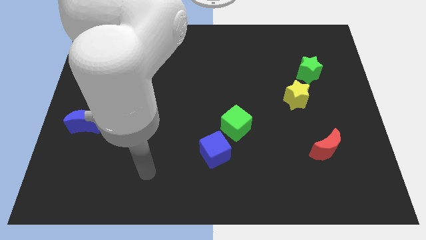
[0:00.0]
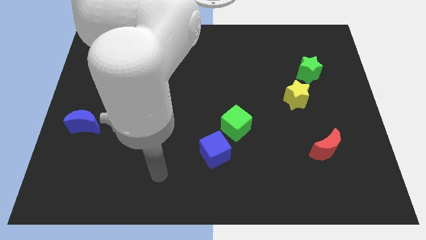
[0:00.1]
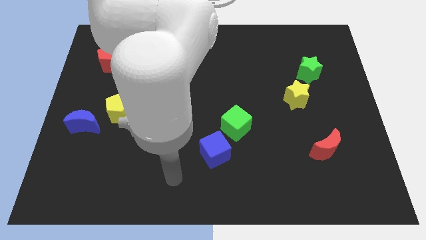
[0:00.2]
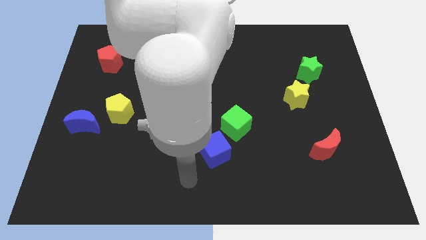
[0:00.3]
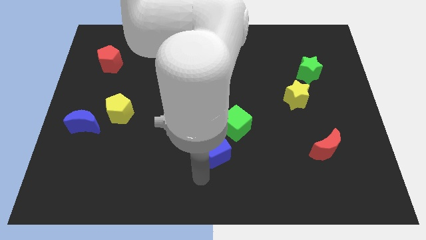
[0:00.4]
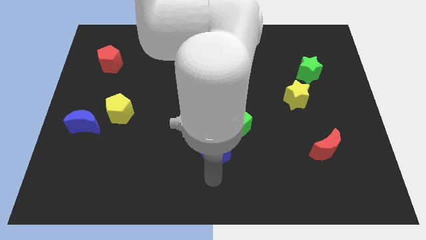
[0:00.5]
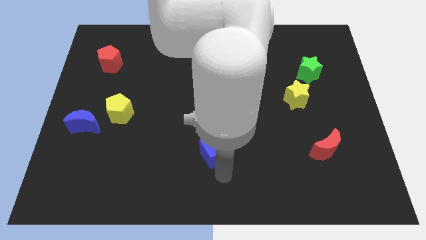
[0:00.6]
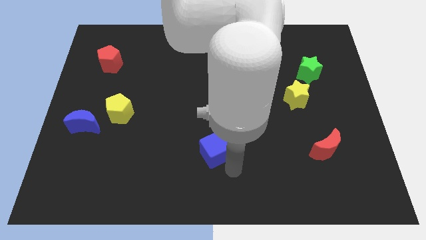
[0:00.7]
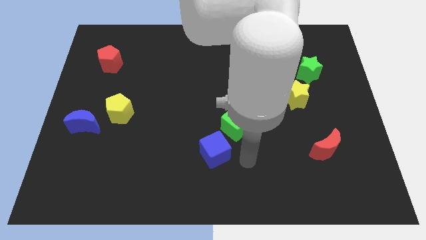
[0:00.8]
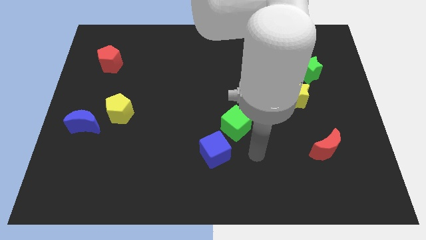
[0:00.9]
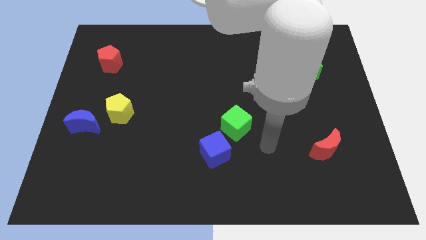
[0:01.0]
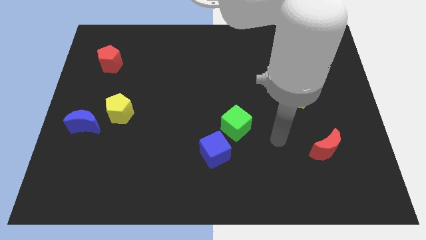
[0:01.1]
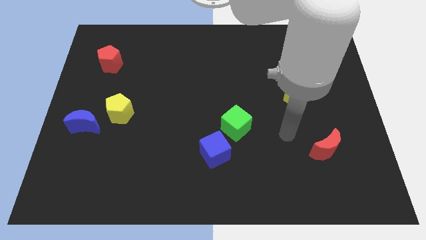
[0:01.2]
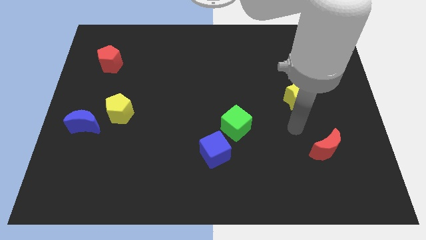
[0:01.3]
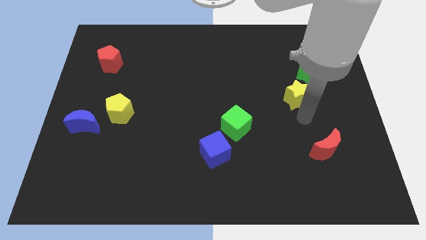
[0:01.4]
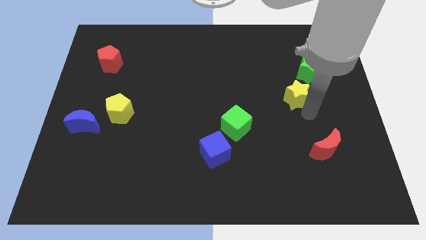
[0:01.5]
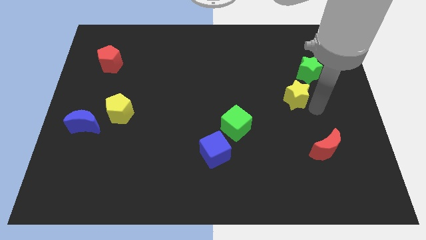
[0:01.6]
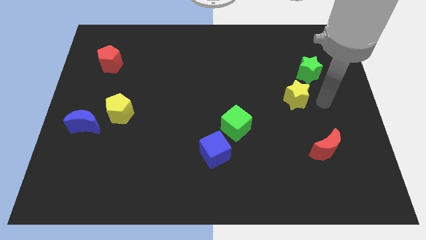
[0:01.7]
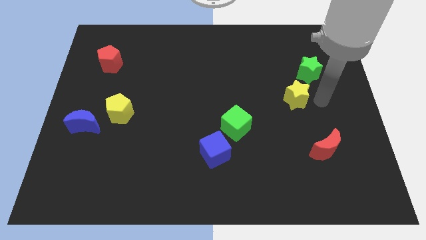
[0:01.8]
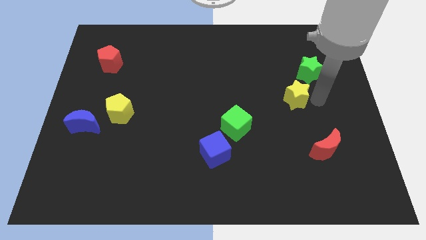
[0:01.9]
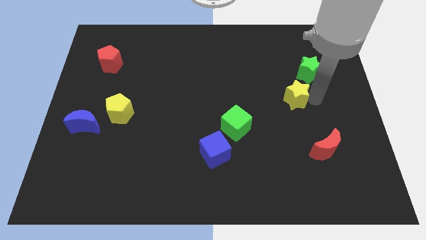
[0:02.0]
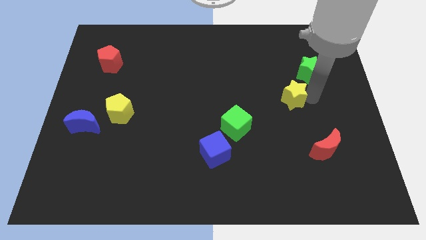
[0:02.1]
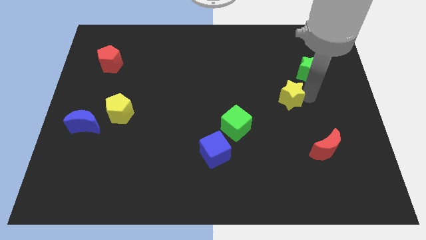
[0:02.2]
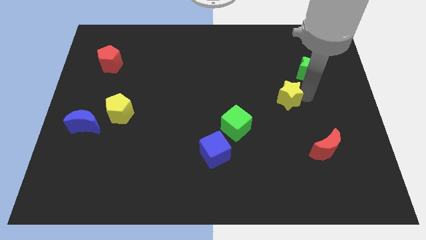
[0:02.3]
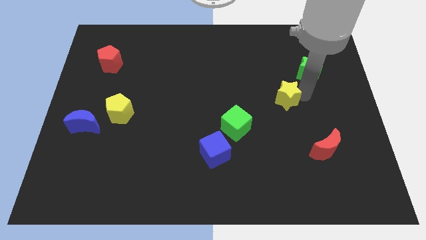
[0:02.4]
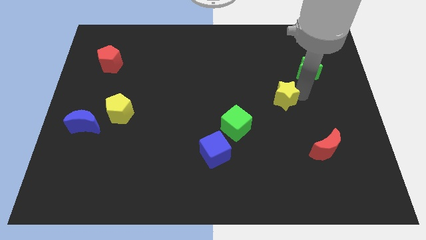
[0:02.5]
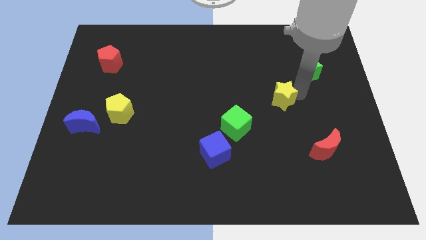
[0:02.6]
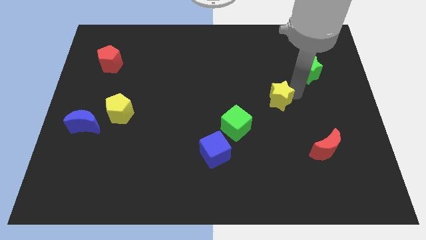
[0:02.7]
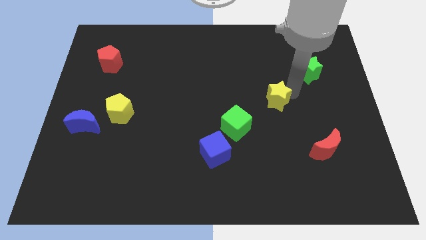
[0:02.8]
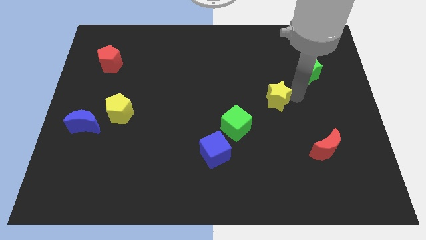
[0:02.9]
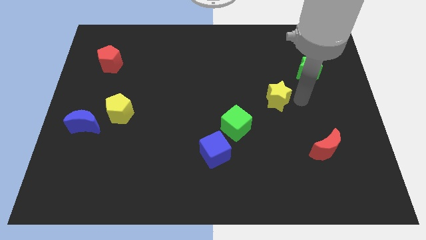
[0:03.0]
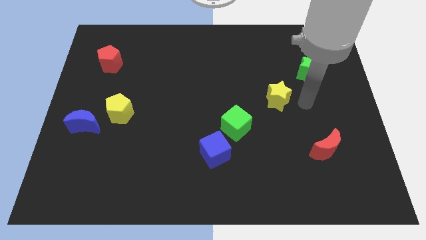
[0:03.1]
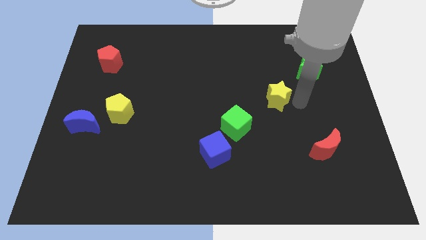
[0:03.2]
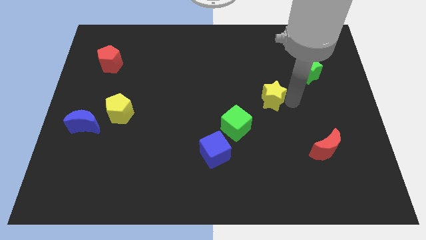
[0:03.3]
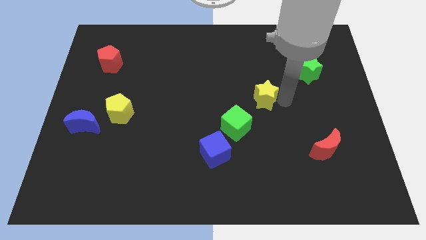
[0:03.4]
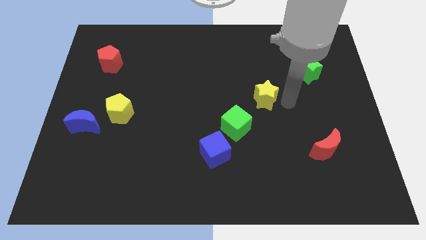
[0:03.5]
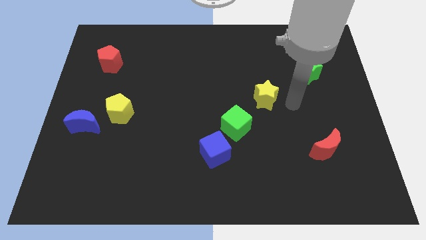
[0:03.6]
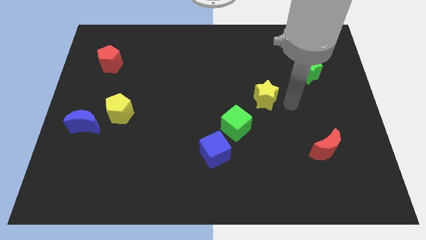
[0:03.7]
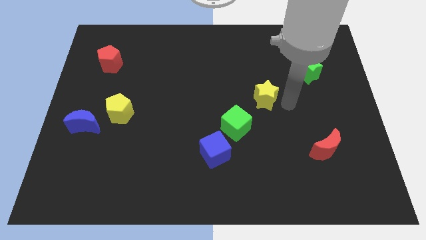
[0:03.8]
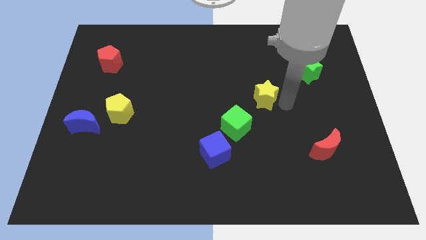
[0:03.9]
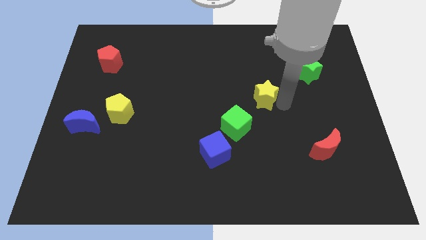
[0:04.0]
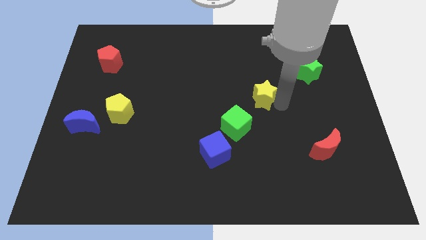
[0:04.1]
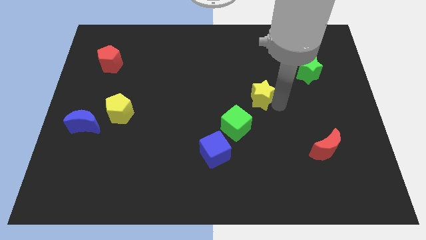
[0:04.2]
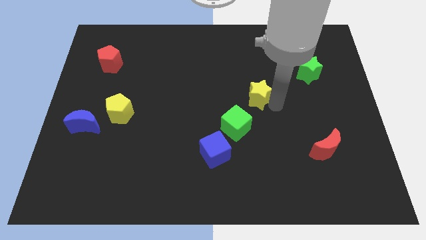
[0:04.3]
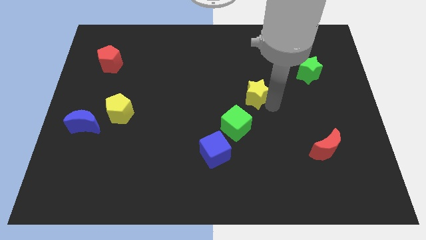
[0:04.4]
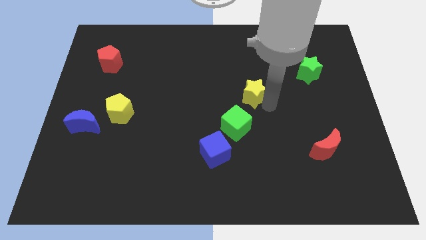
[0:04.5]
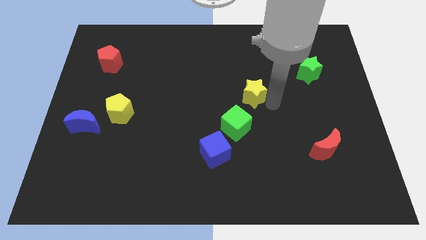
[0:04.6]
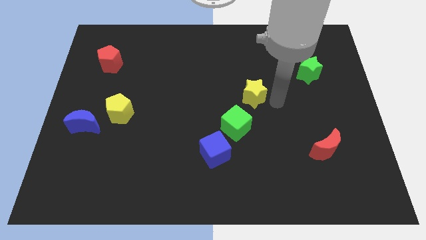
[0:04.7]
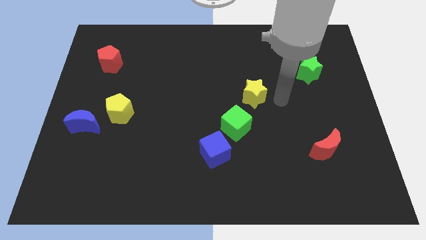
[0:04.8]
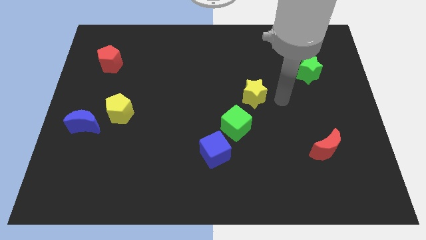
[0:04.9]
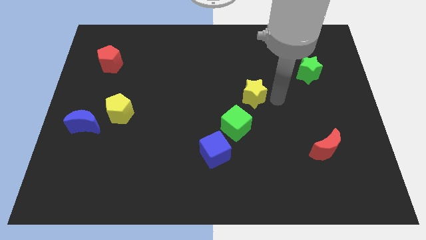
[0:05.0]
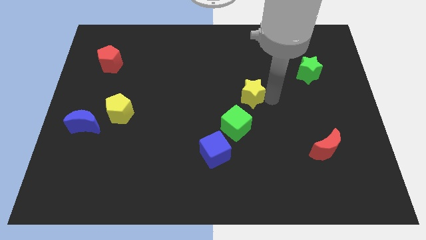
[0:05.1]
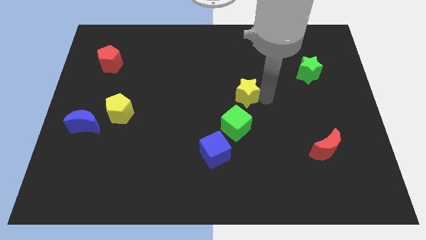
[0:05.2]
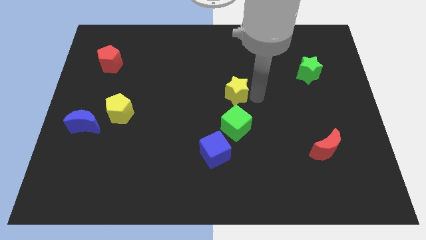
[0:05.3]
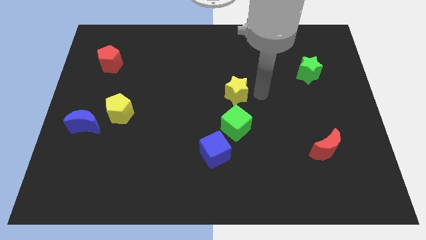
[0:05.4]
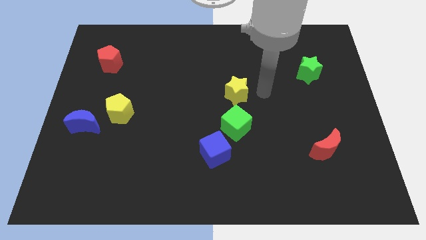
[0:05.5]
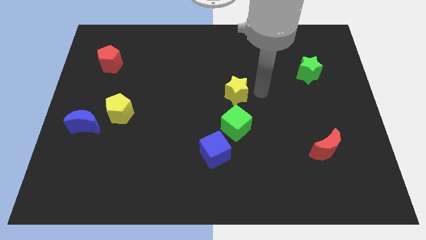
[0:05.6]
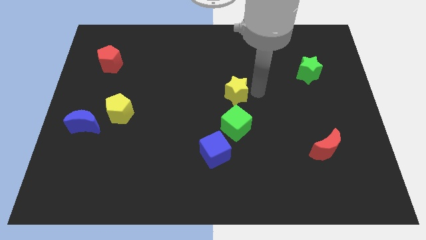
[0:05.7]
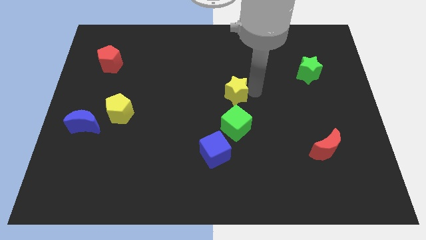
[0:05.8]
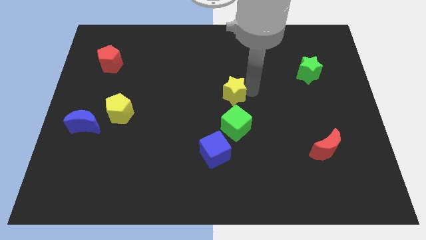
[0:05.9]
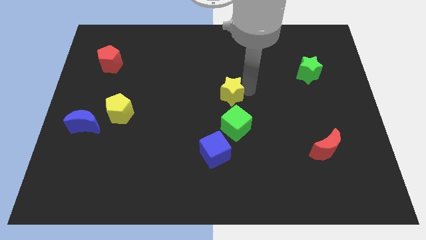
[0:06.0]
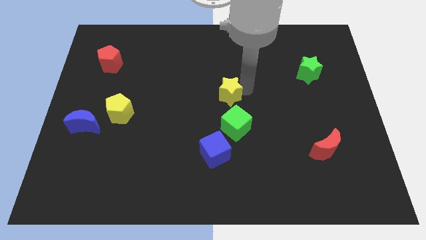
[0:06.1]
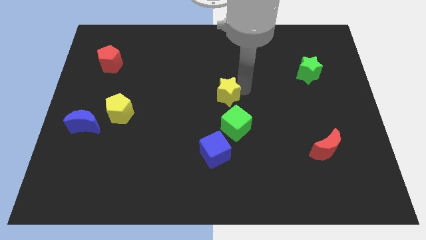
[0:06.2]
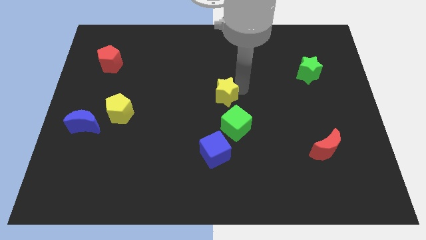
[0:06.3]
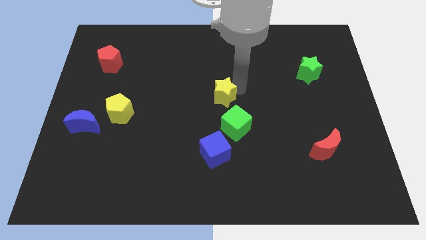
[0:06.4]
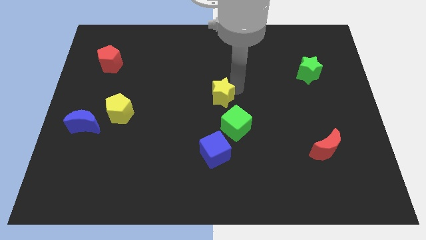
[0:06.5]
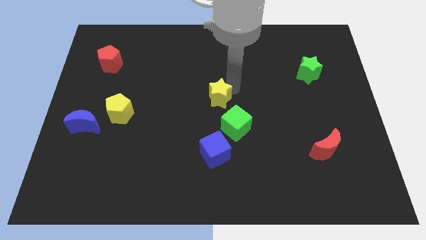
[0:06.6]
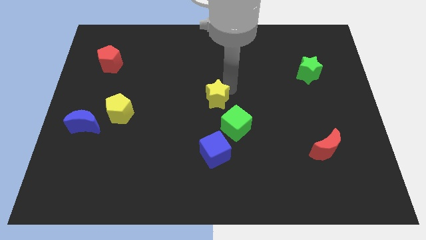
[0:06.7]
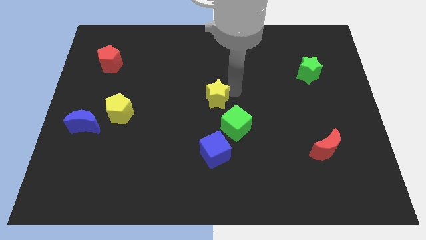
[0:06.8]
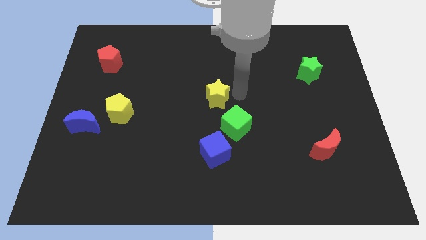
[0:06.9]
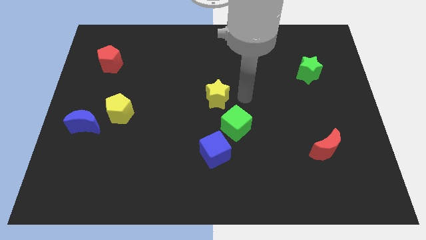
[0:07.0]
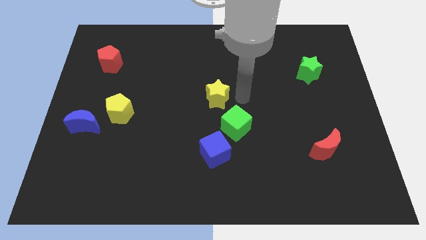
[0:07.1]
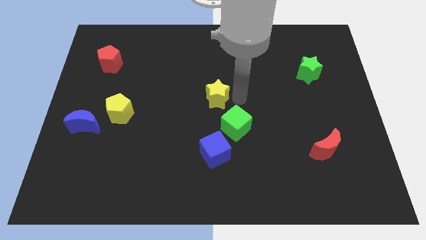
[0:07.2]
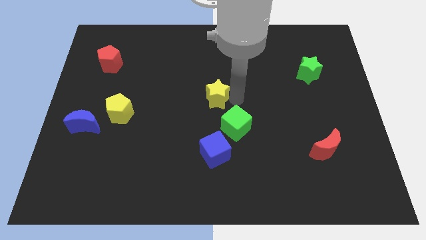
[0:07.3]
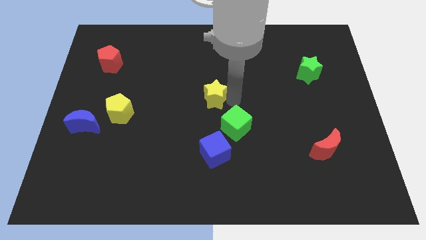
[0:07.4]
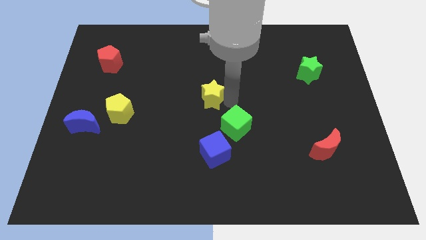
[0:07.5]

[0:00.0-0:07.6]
slide the yellow star to the left

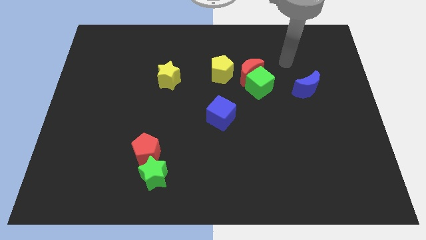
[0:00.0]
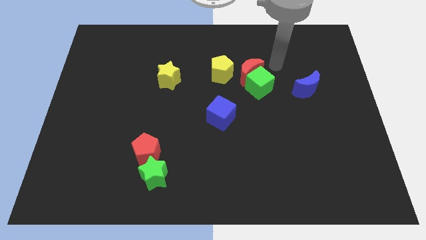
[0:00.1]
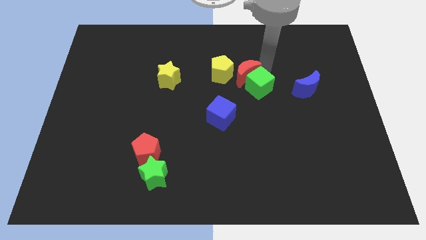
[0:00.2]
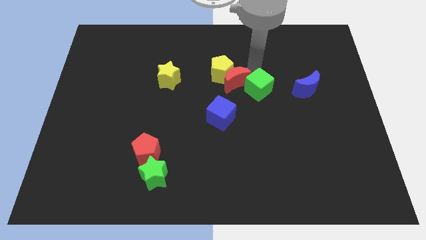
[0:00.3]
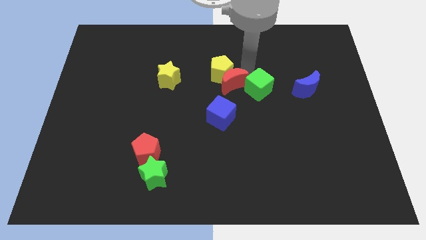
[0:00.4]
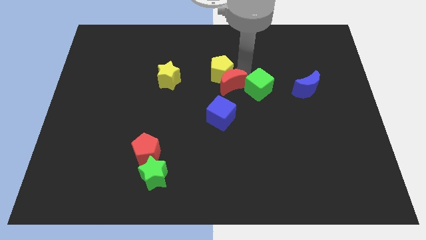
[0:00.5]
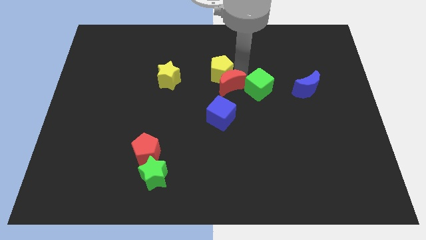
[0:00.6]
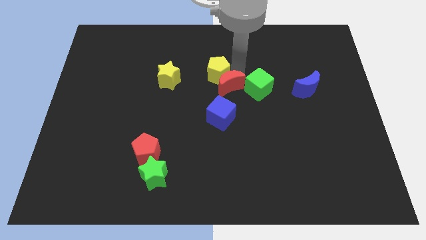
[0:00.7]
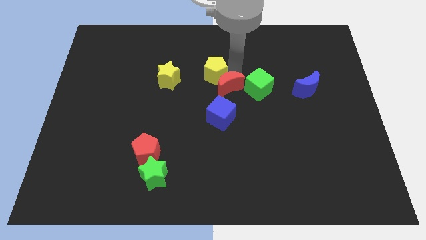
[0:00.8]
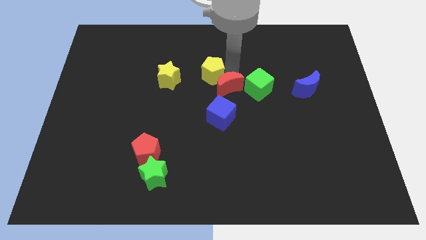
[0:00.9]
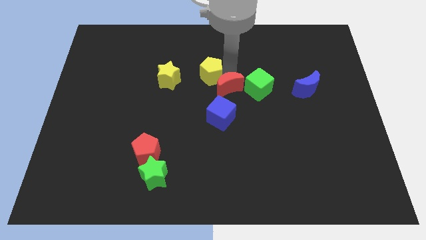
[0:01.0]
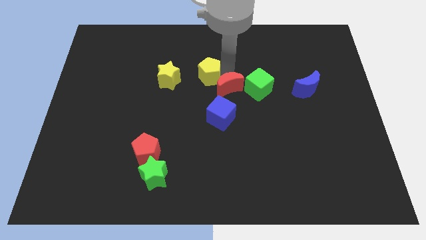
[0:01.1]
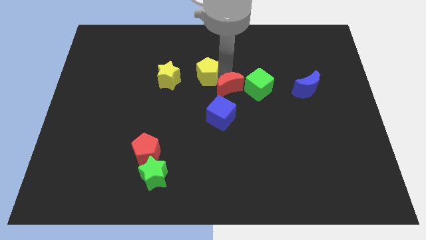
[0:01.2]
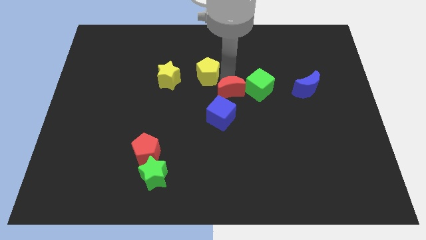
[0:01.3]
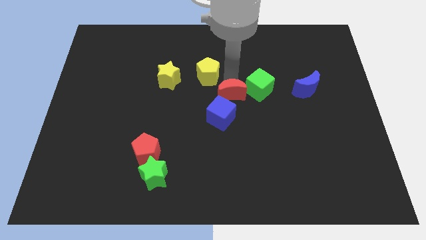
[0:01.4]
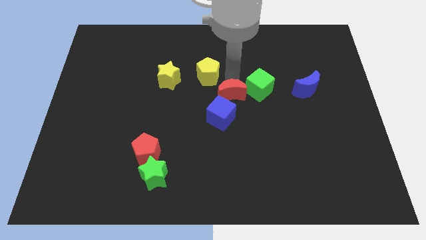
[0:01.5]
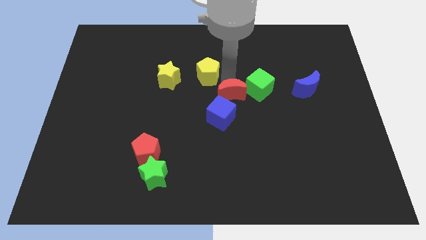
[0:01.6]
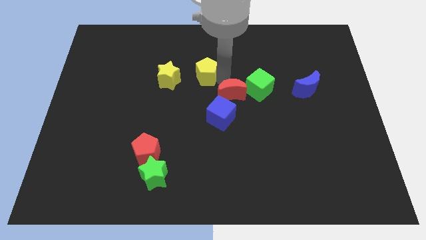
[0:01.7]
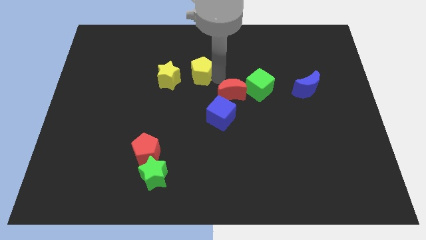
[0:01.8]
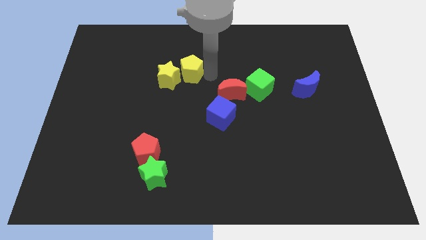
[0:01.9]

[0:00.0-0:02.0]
slide the yellow pentagon to the left a little bit
